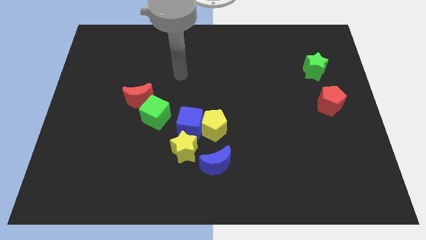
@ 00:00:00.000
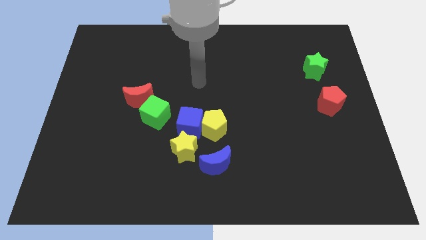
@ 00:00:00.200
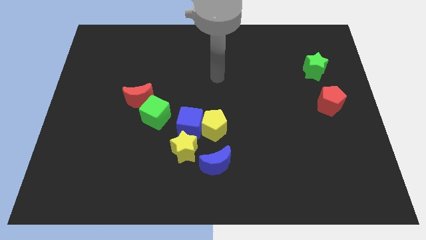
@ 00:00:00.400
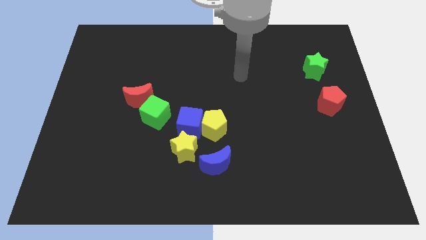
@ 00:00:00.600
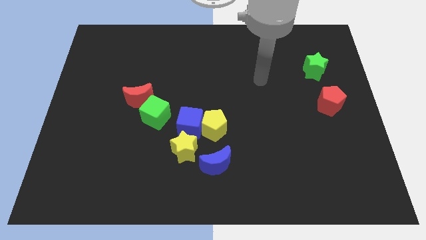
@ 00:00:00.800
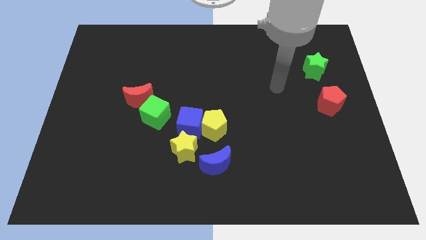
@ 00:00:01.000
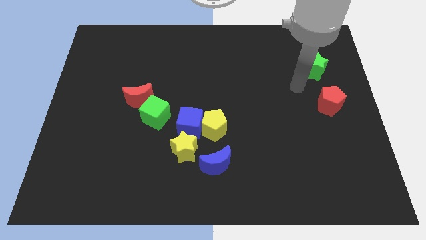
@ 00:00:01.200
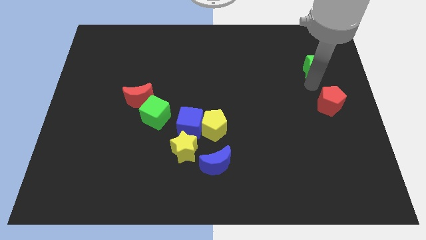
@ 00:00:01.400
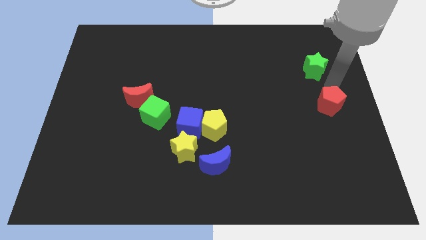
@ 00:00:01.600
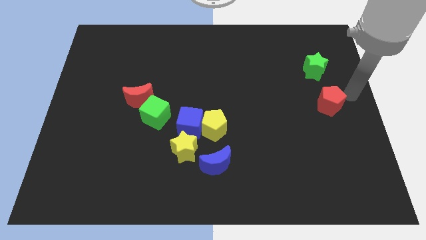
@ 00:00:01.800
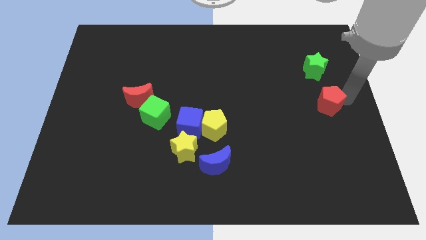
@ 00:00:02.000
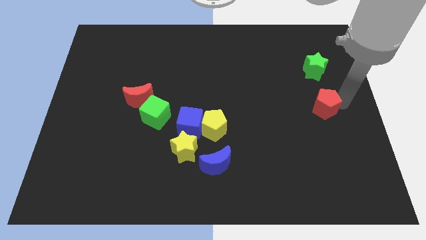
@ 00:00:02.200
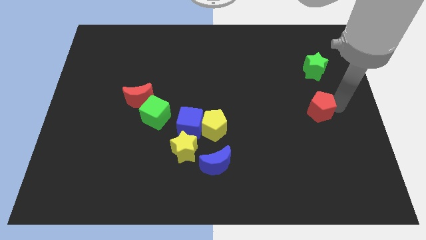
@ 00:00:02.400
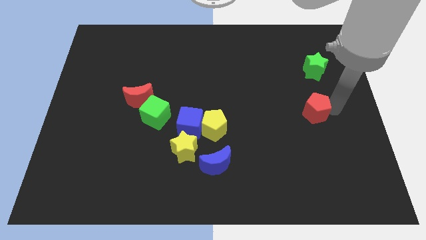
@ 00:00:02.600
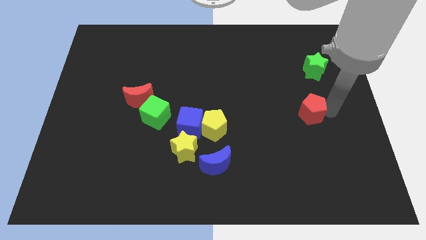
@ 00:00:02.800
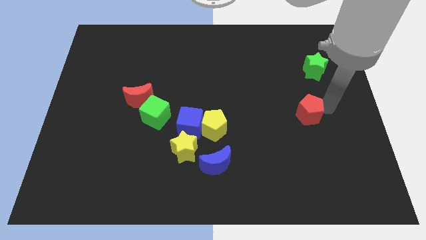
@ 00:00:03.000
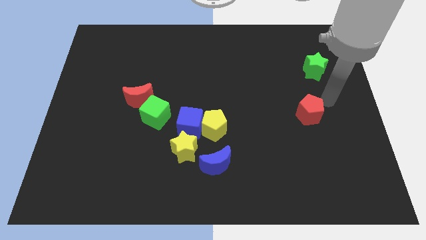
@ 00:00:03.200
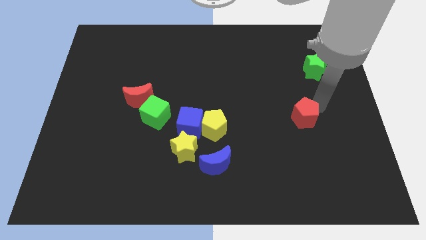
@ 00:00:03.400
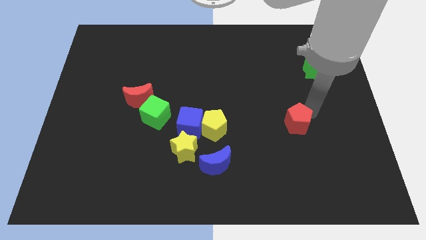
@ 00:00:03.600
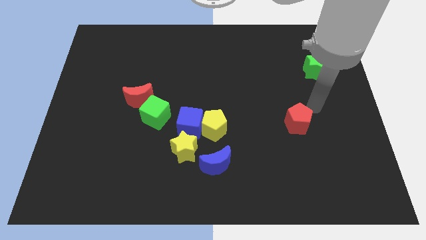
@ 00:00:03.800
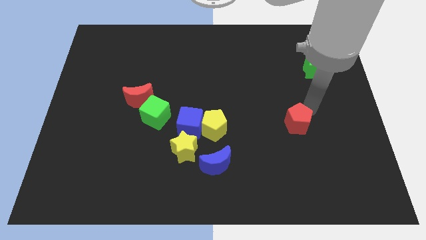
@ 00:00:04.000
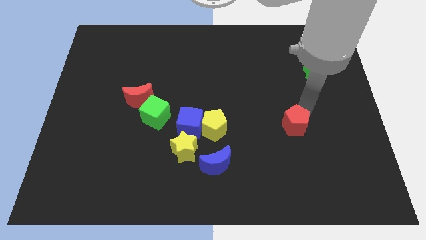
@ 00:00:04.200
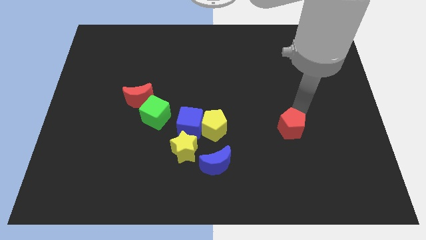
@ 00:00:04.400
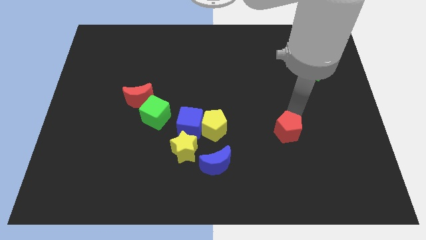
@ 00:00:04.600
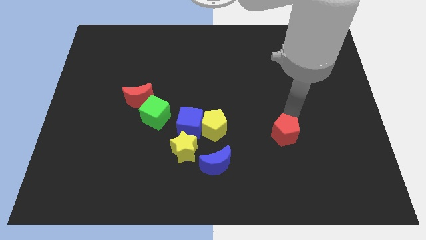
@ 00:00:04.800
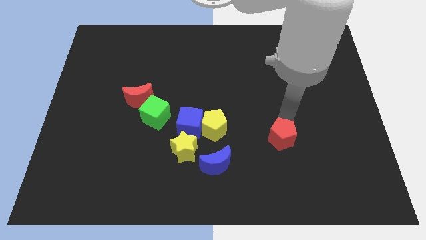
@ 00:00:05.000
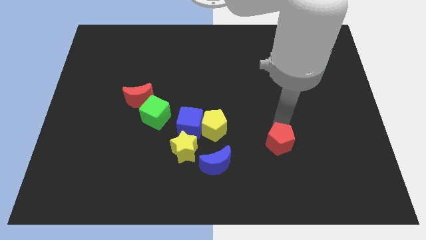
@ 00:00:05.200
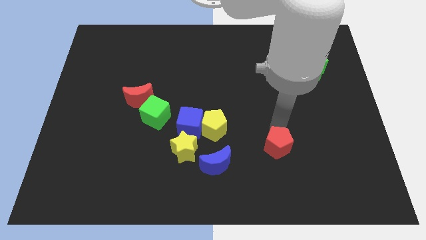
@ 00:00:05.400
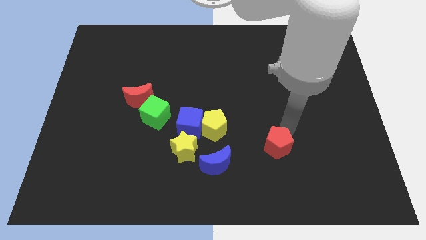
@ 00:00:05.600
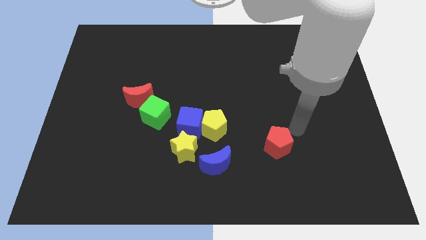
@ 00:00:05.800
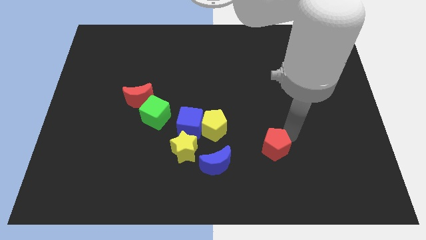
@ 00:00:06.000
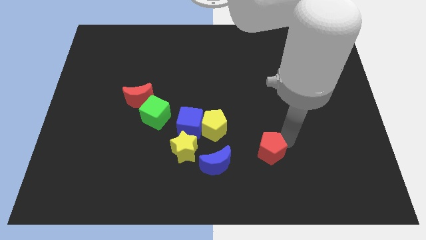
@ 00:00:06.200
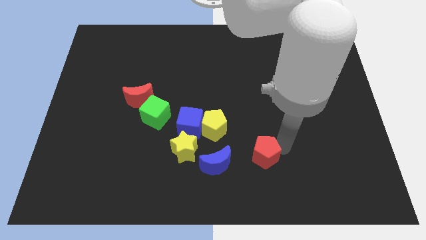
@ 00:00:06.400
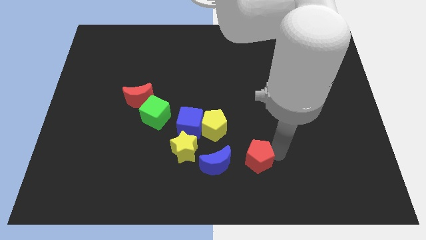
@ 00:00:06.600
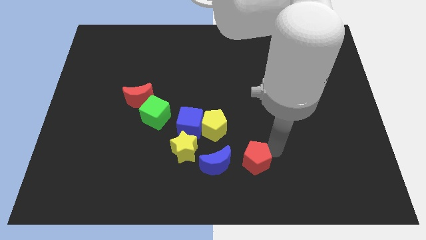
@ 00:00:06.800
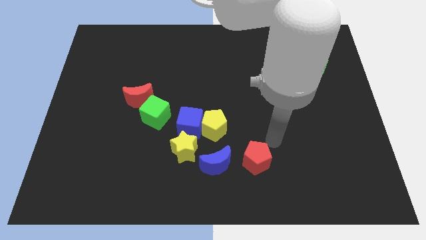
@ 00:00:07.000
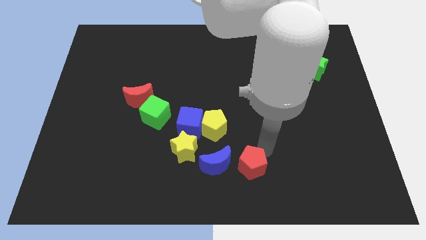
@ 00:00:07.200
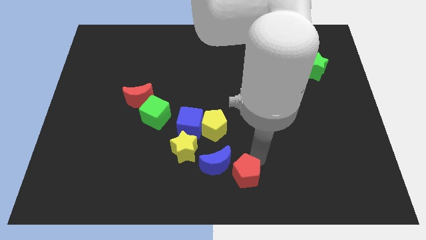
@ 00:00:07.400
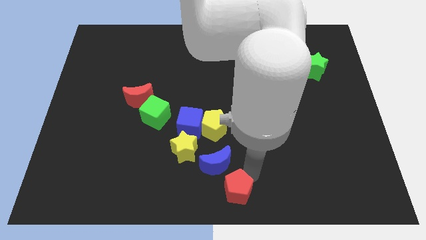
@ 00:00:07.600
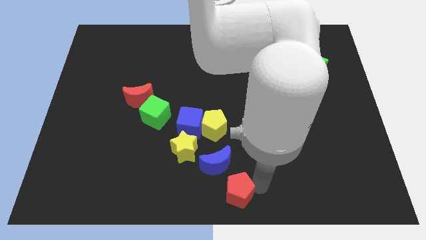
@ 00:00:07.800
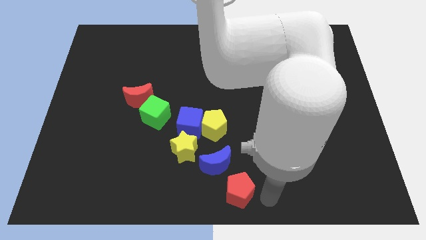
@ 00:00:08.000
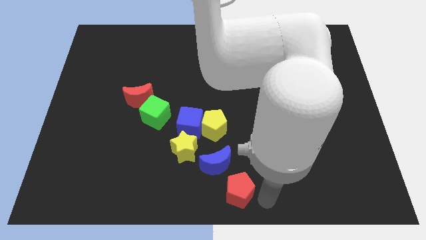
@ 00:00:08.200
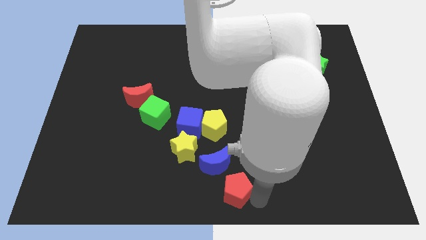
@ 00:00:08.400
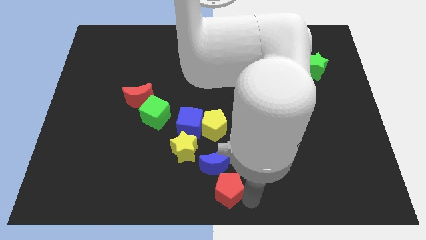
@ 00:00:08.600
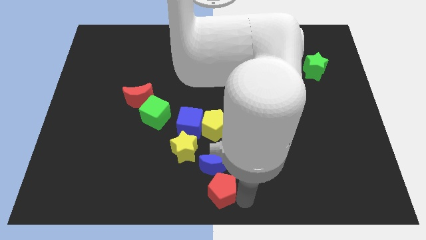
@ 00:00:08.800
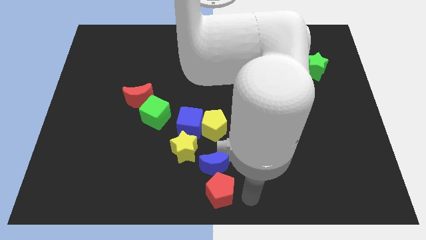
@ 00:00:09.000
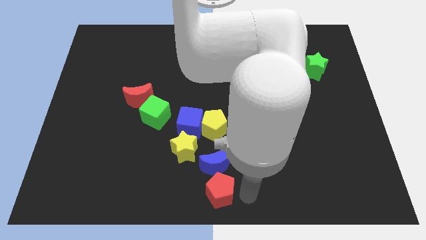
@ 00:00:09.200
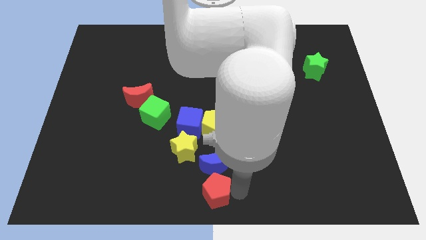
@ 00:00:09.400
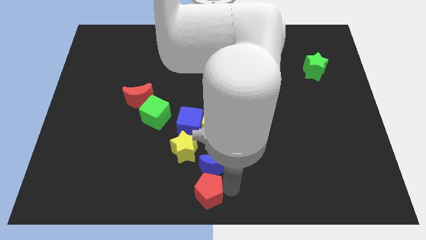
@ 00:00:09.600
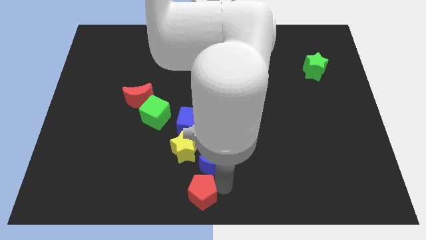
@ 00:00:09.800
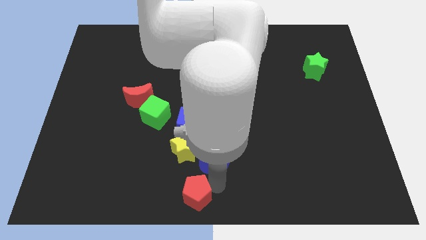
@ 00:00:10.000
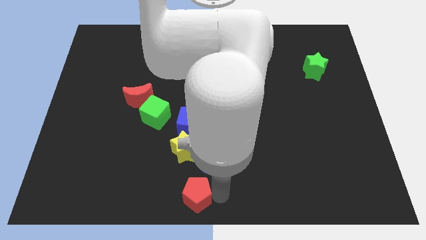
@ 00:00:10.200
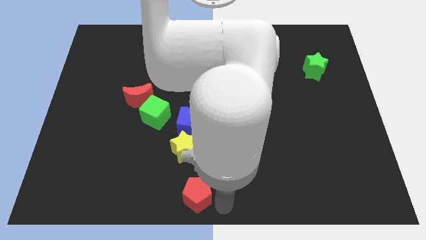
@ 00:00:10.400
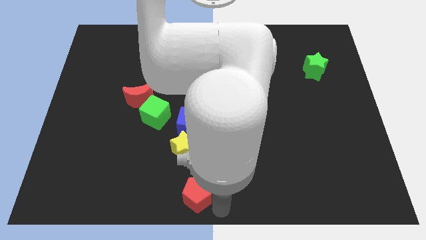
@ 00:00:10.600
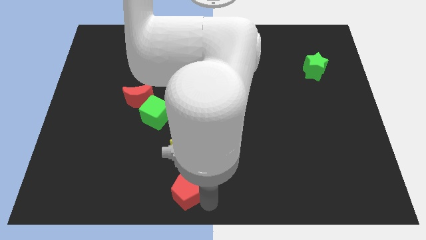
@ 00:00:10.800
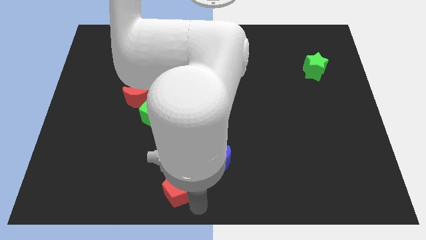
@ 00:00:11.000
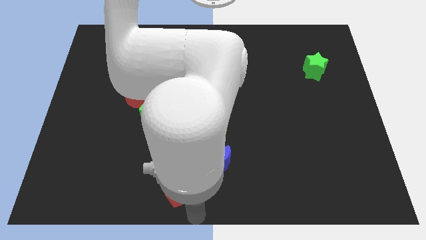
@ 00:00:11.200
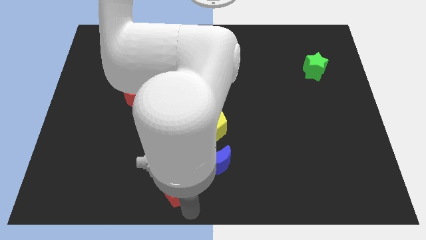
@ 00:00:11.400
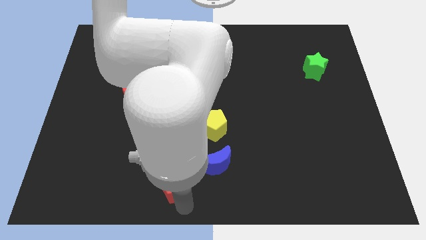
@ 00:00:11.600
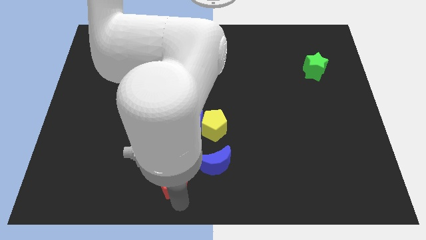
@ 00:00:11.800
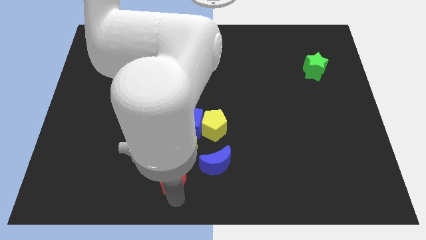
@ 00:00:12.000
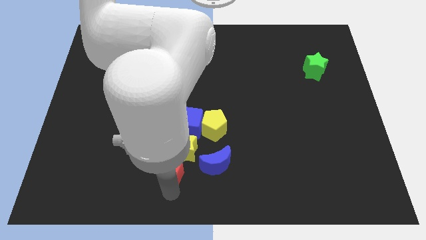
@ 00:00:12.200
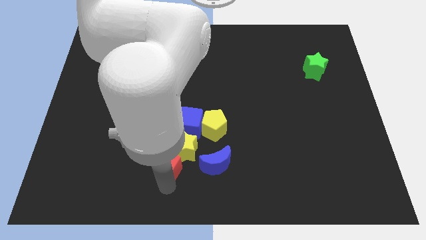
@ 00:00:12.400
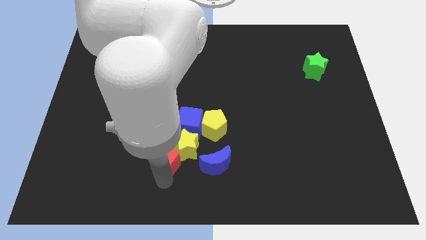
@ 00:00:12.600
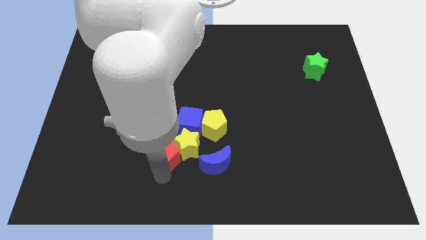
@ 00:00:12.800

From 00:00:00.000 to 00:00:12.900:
move the red pentagon to the top left of the yellow star

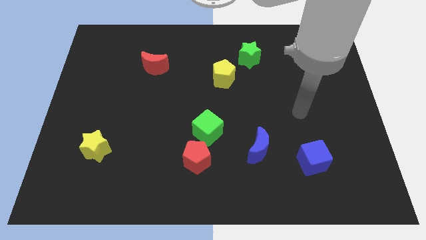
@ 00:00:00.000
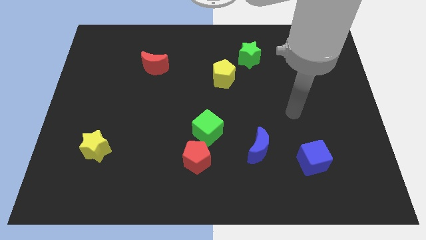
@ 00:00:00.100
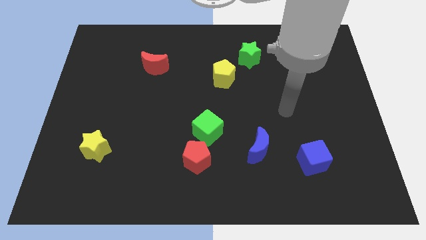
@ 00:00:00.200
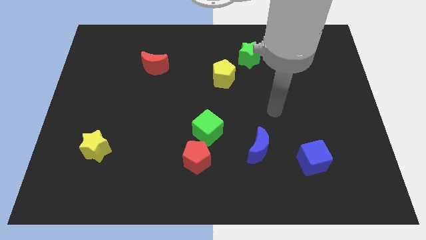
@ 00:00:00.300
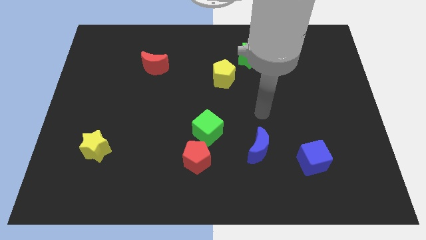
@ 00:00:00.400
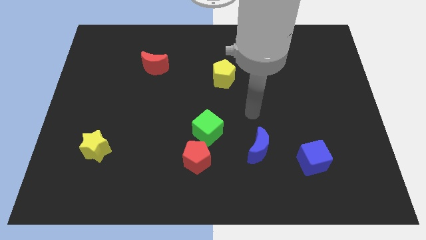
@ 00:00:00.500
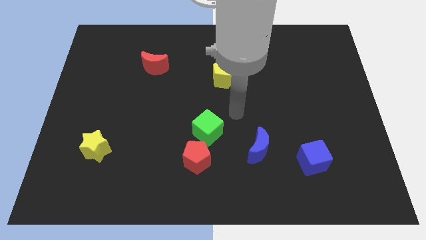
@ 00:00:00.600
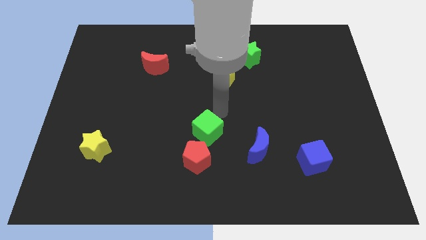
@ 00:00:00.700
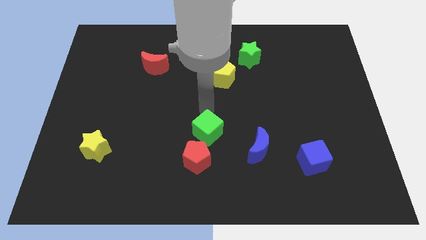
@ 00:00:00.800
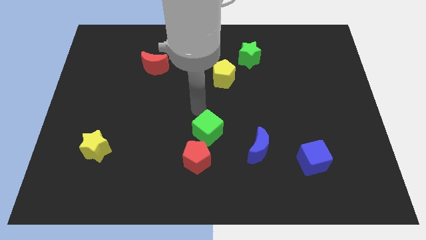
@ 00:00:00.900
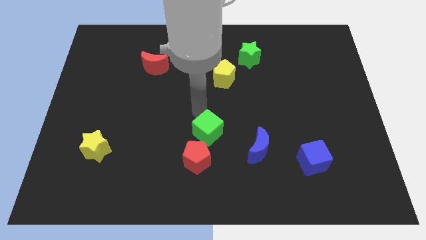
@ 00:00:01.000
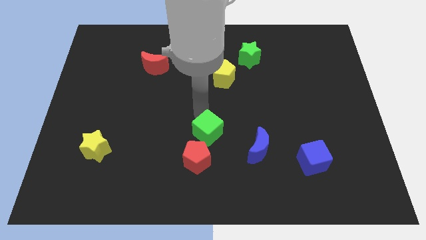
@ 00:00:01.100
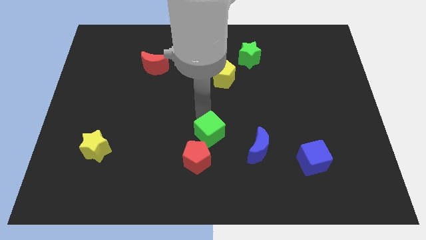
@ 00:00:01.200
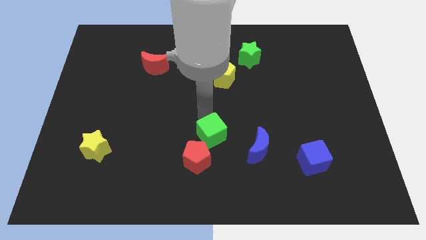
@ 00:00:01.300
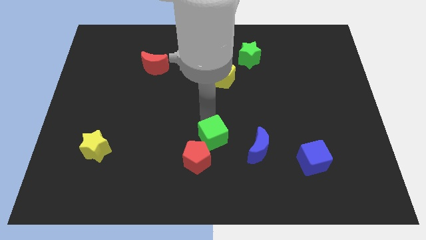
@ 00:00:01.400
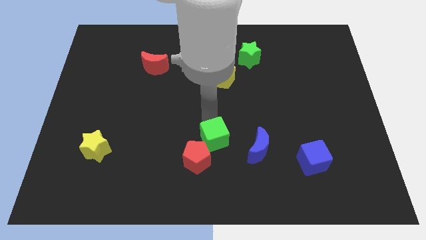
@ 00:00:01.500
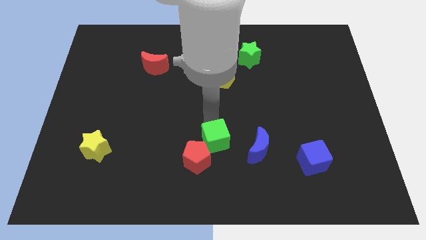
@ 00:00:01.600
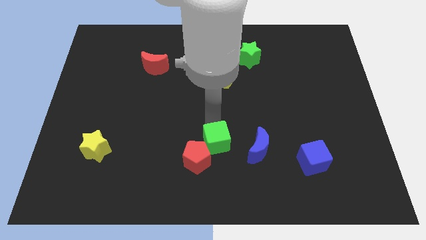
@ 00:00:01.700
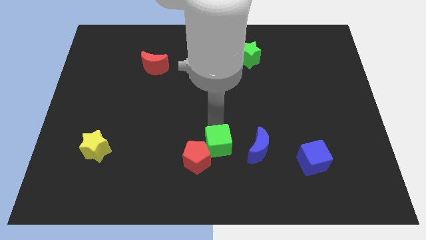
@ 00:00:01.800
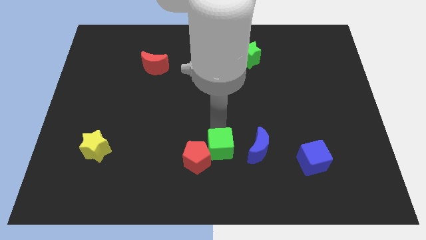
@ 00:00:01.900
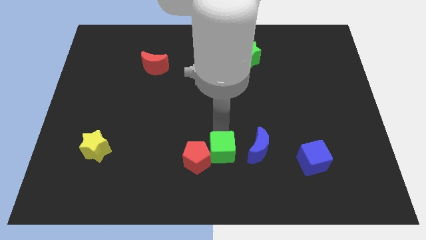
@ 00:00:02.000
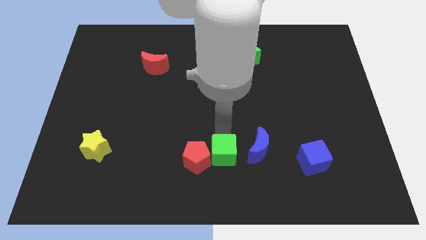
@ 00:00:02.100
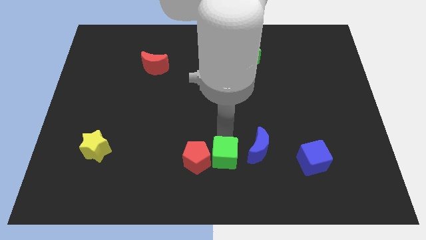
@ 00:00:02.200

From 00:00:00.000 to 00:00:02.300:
move the green cube to the bottom right side of the red pentagon
